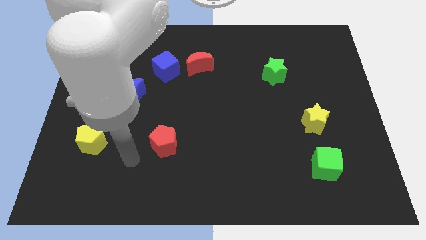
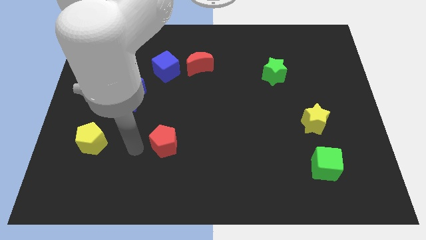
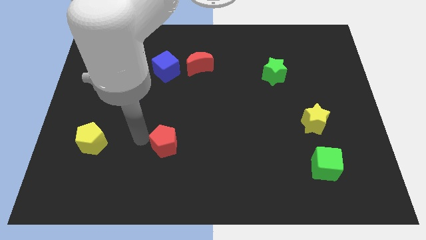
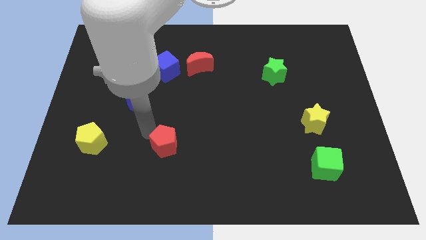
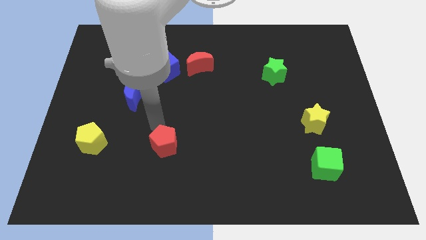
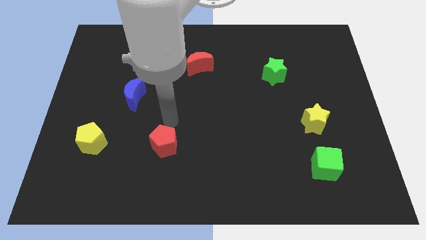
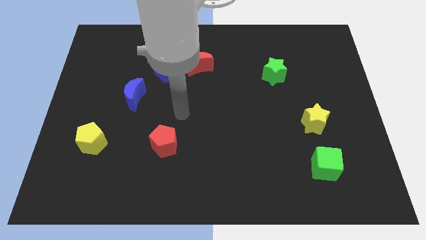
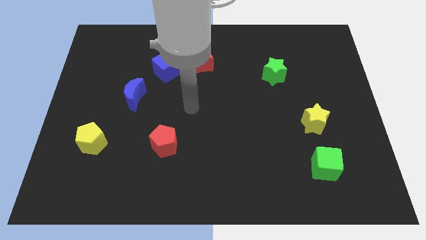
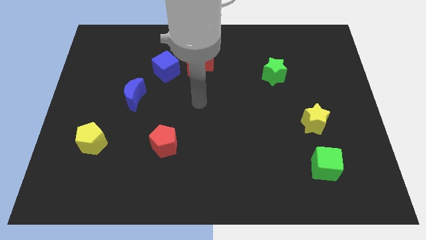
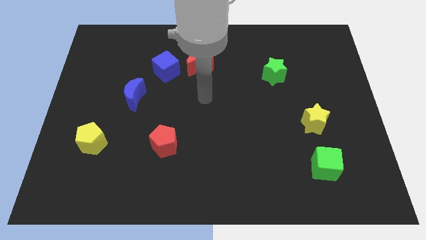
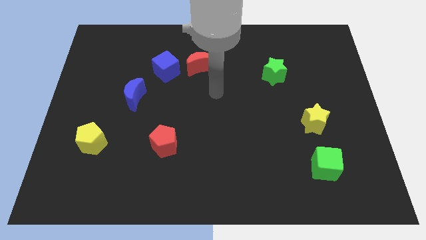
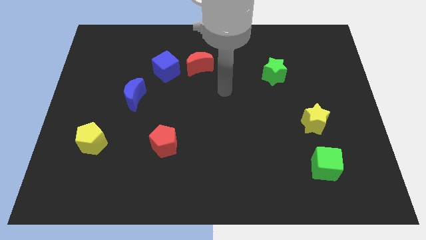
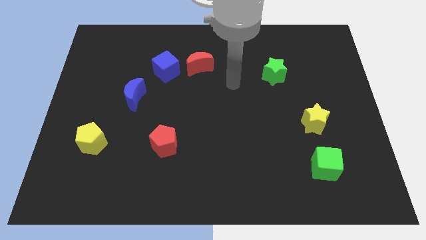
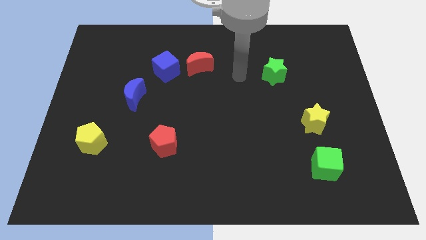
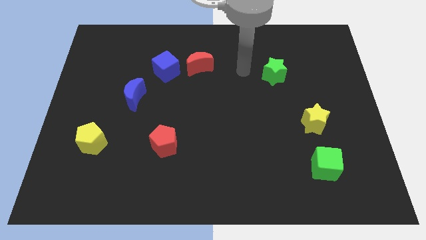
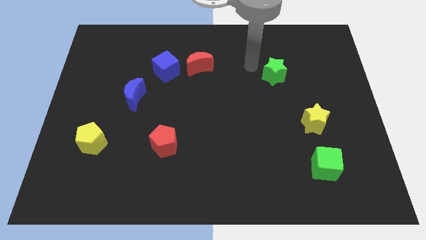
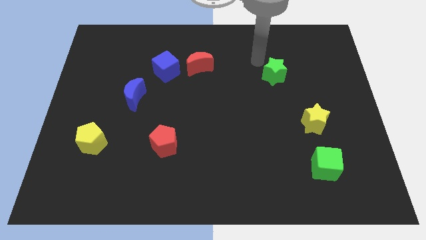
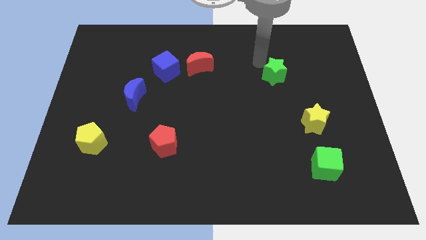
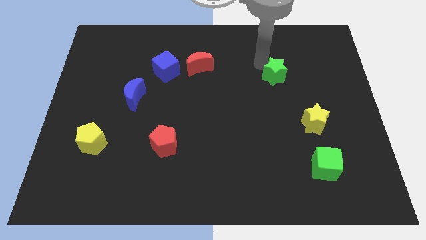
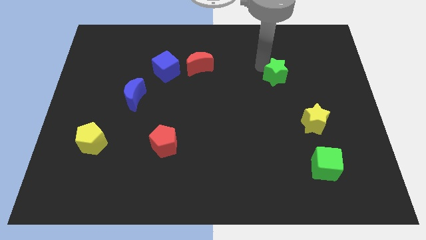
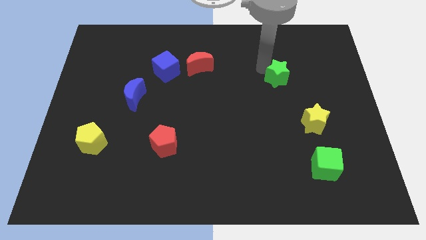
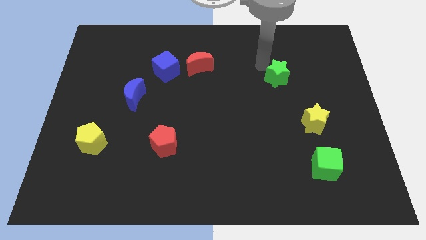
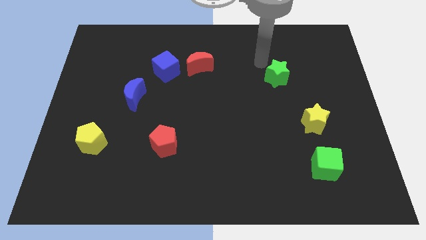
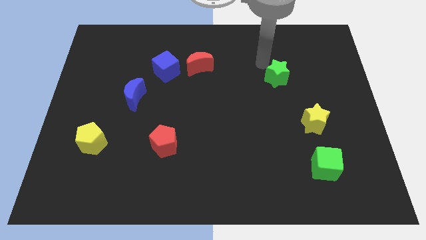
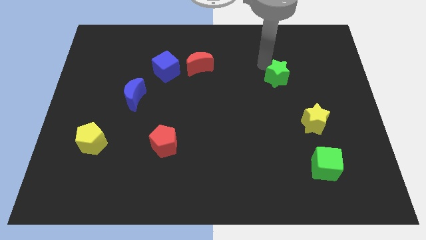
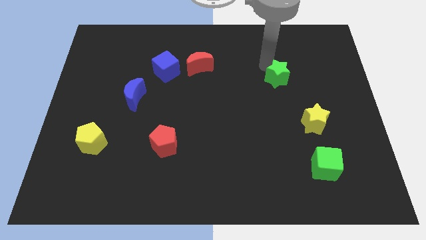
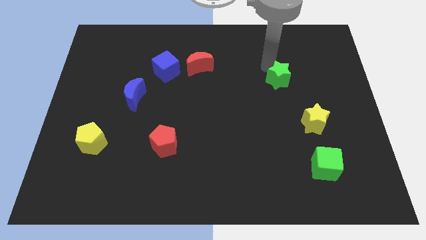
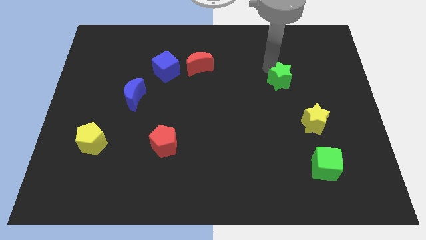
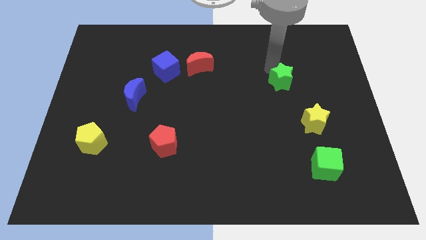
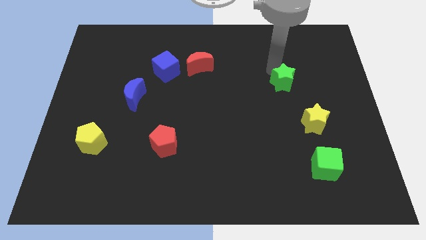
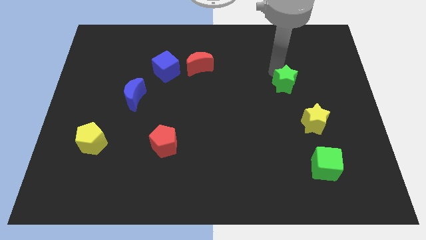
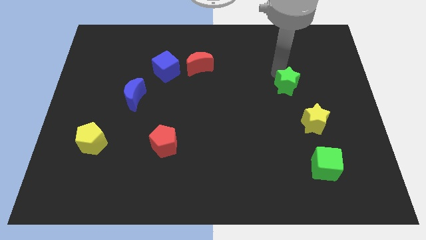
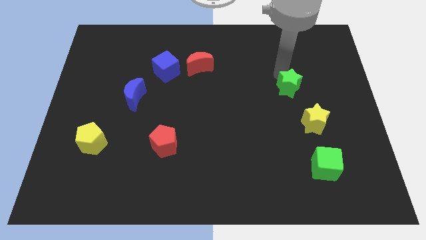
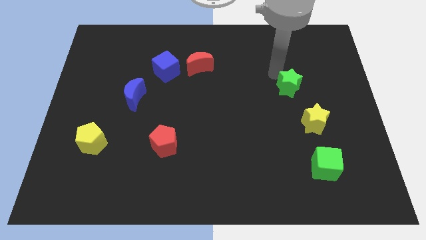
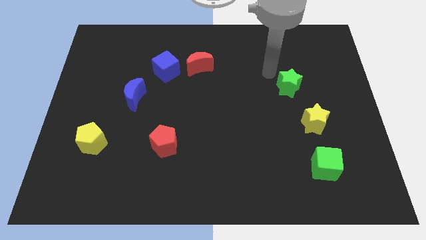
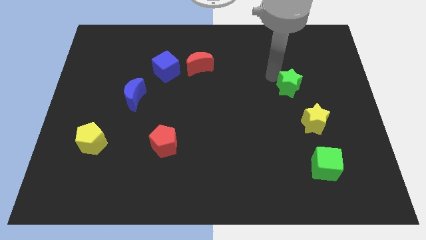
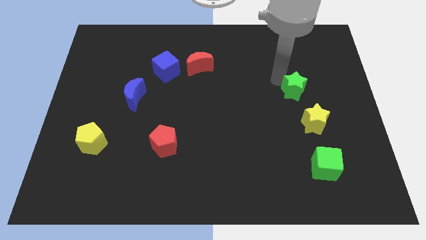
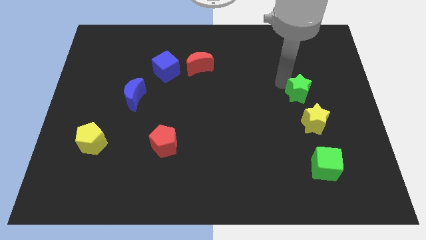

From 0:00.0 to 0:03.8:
move the green star a little diagonally downwards and right

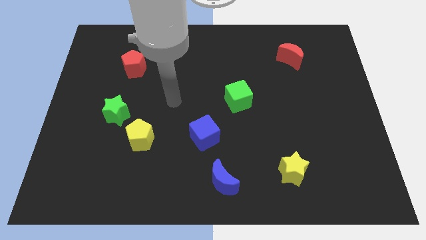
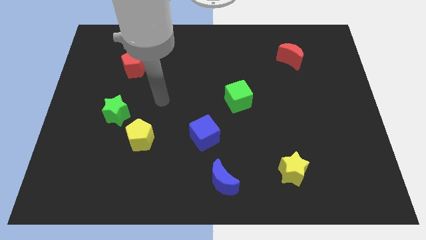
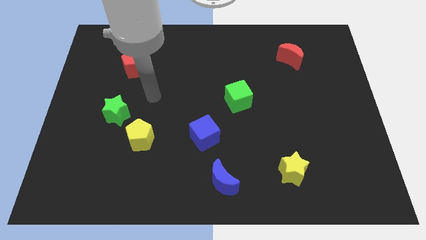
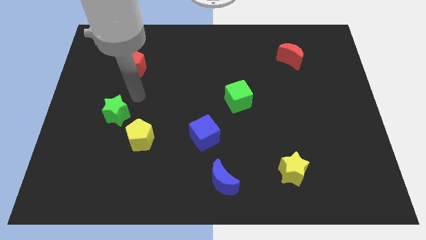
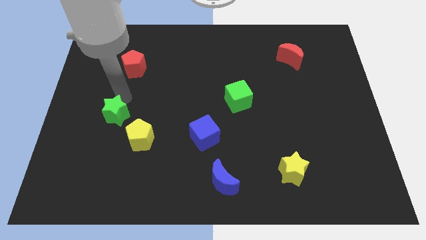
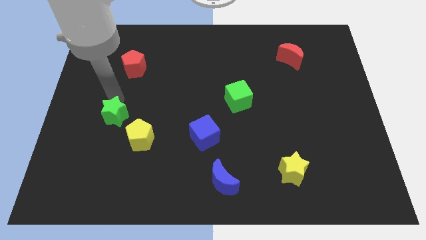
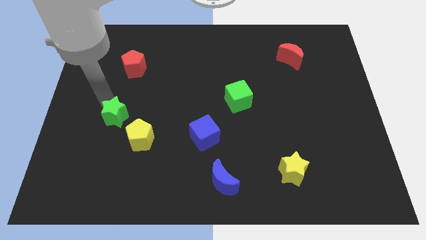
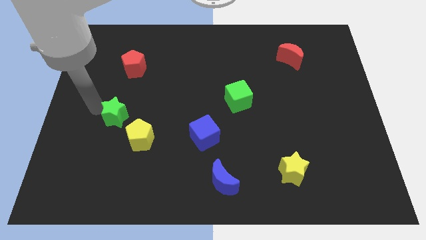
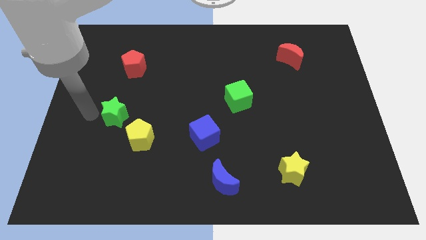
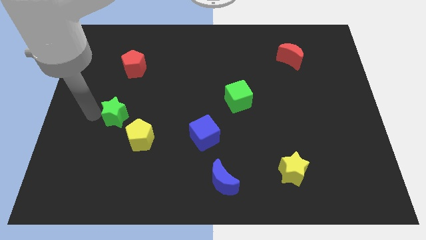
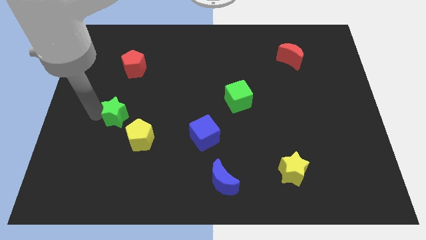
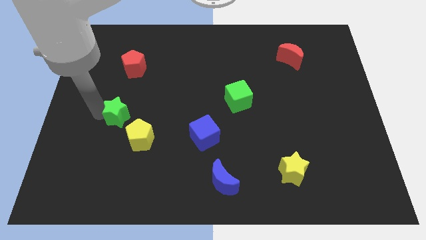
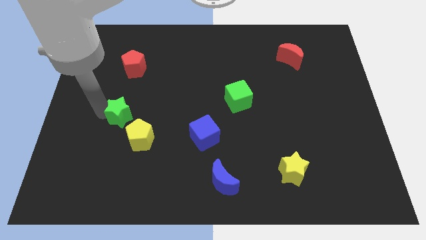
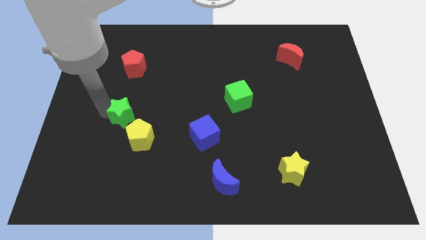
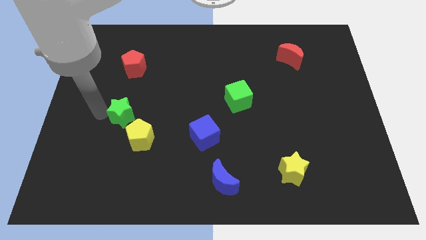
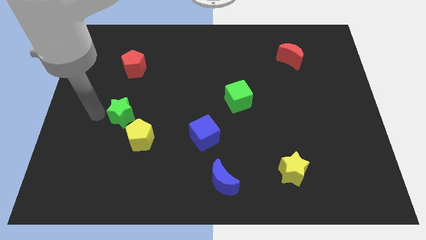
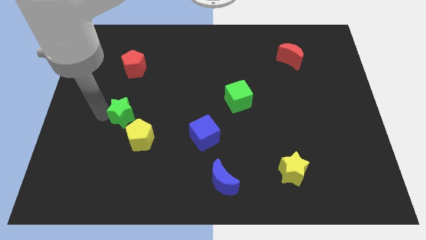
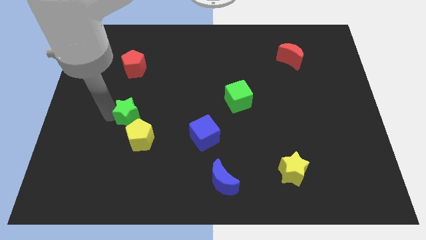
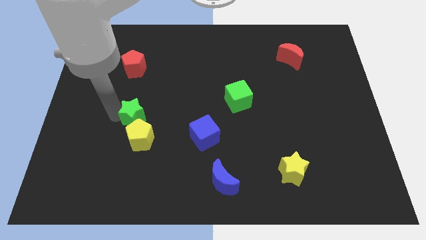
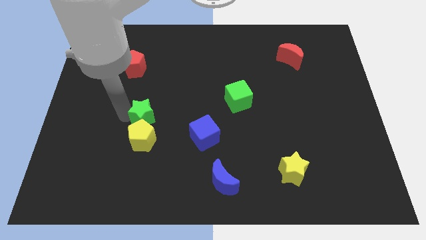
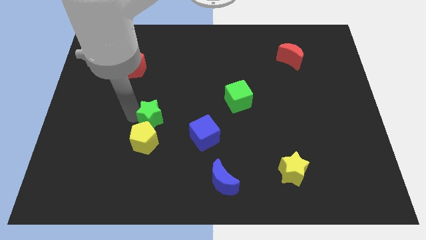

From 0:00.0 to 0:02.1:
push the green star a bit to the right

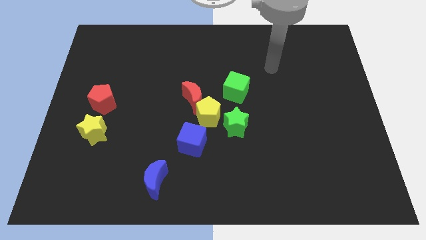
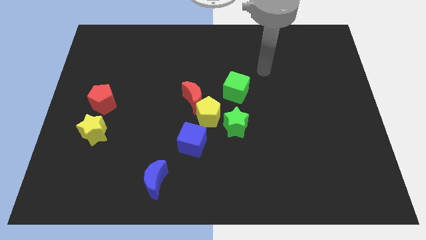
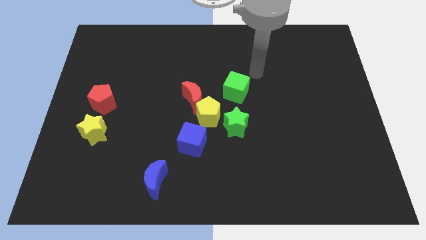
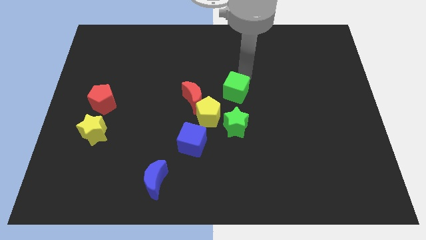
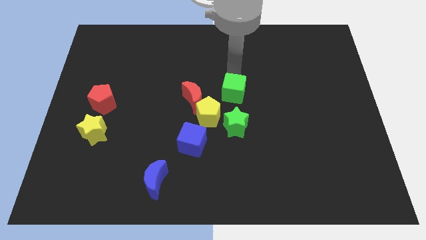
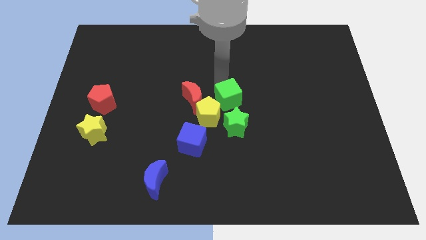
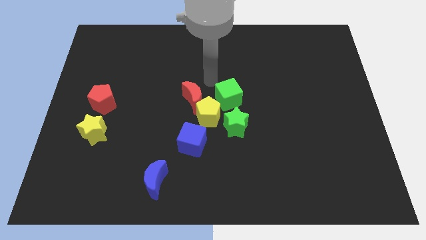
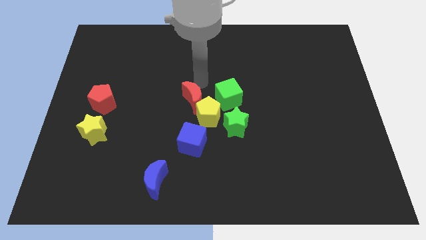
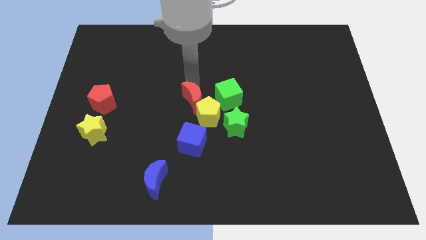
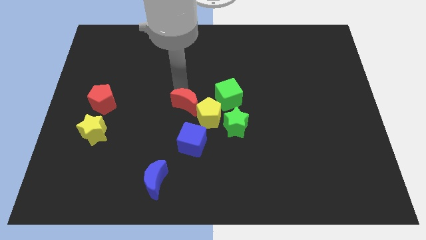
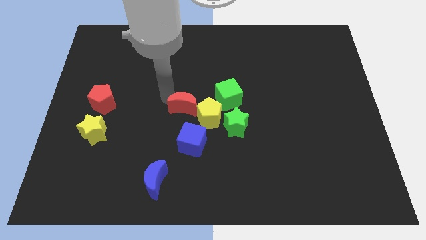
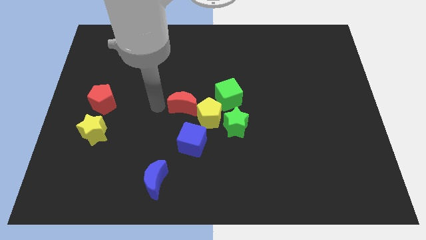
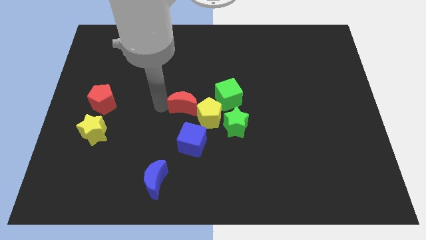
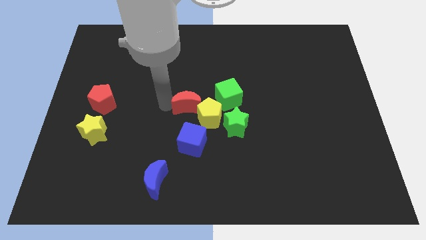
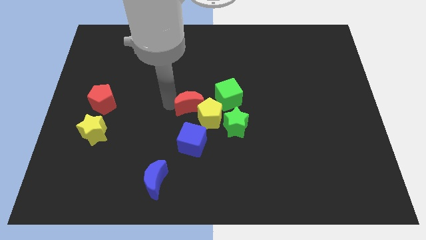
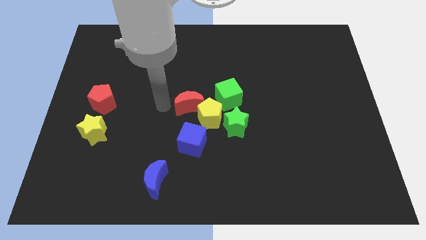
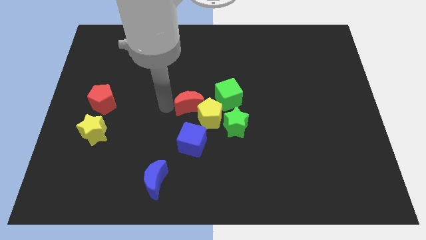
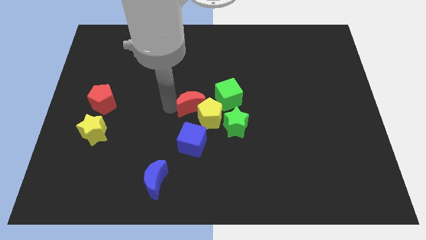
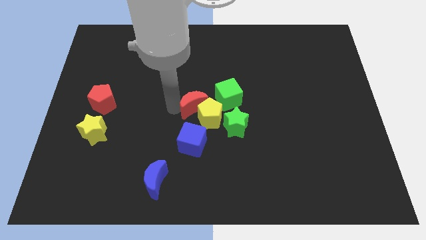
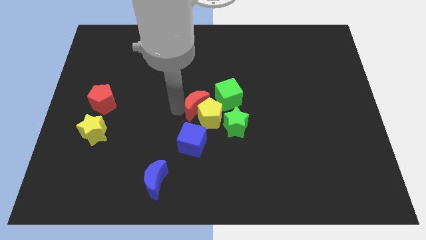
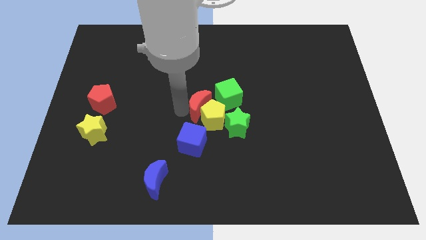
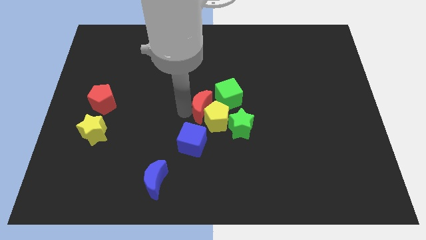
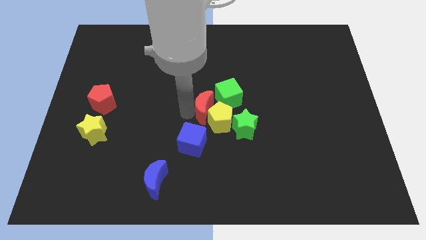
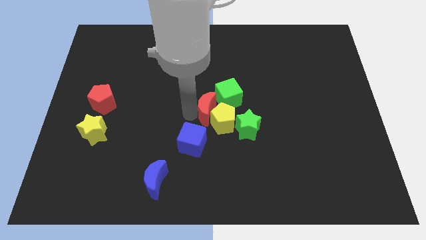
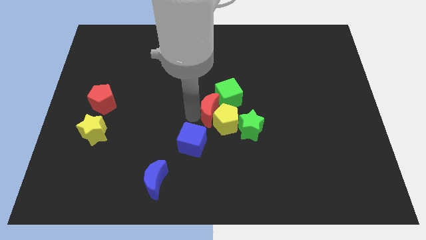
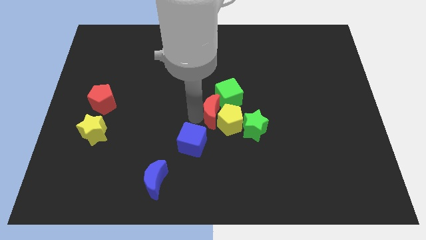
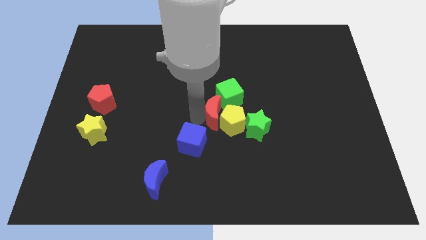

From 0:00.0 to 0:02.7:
move the red moon downwards and right slightly
